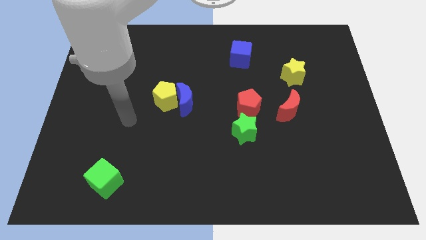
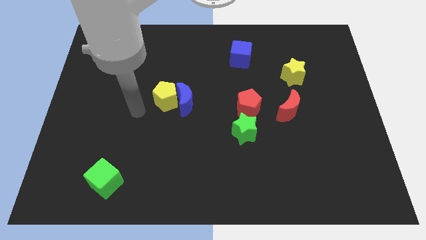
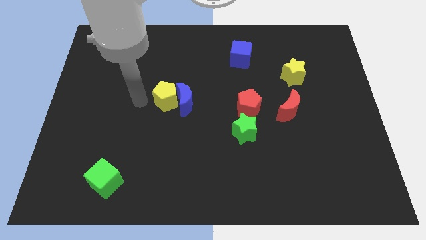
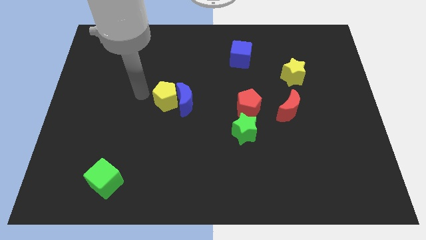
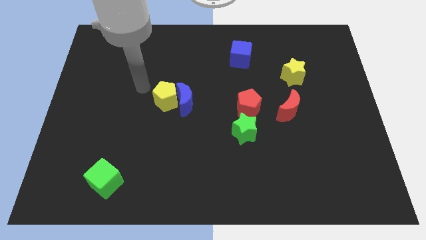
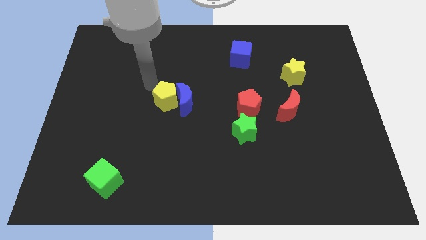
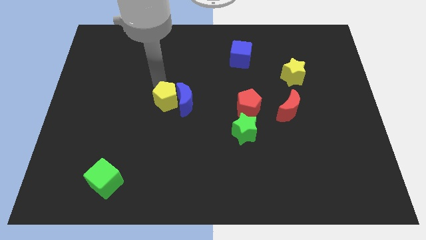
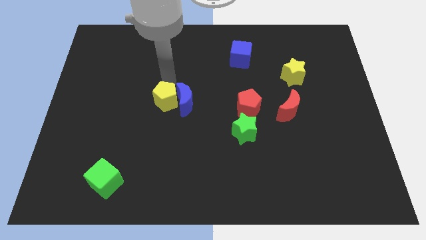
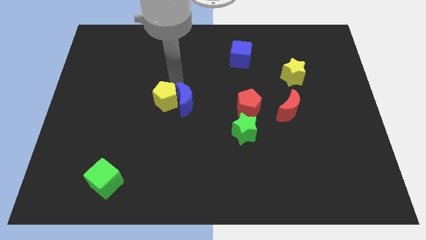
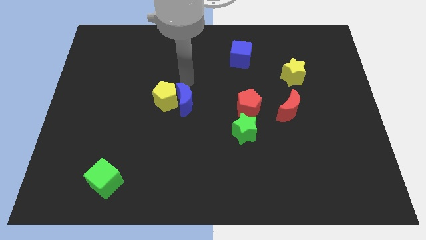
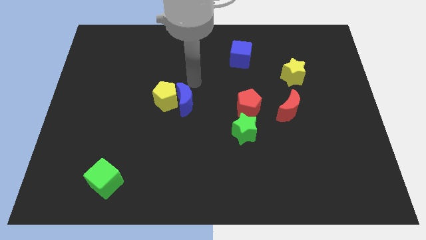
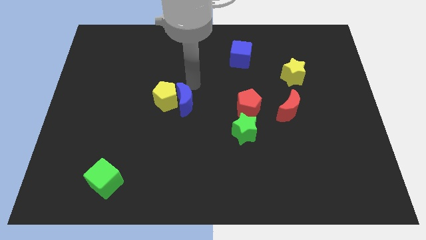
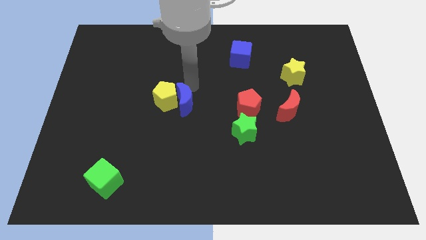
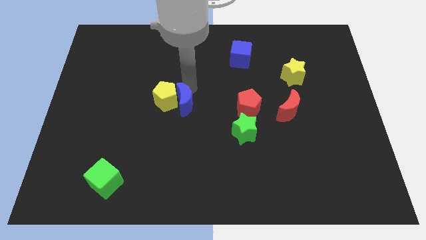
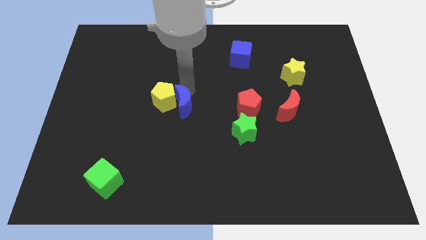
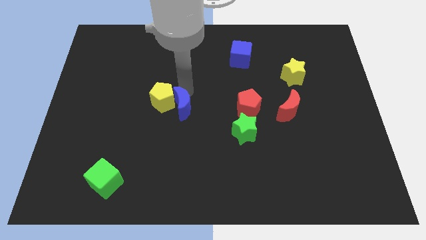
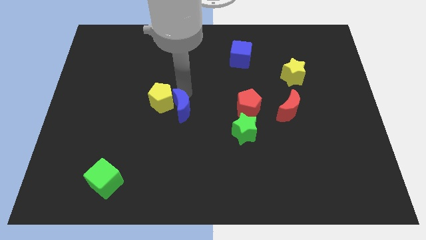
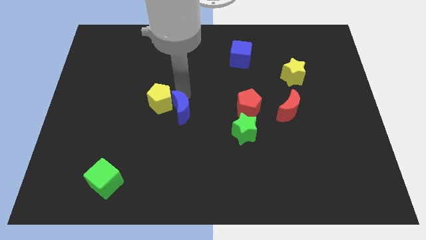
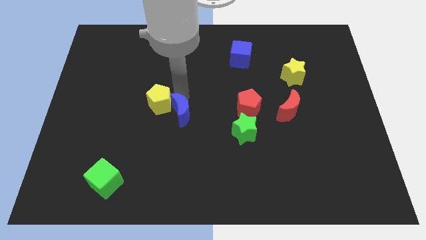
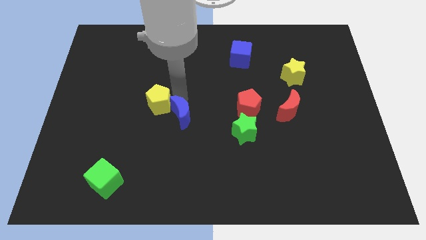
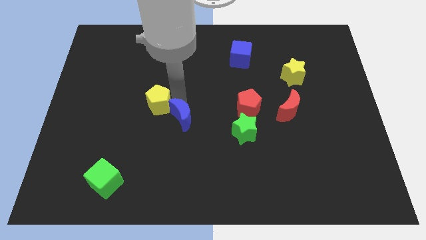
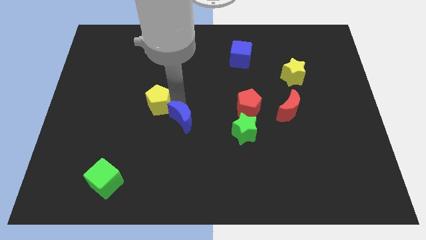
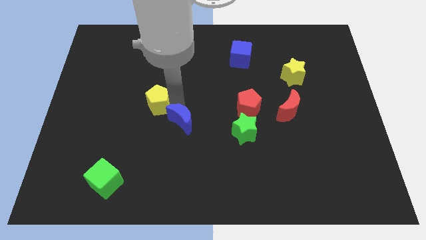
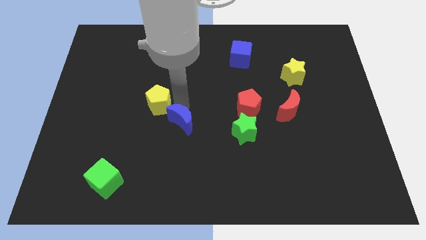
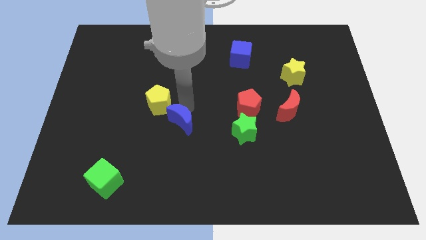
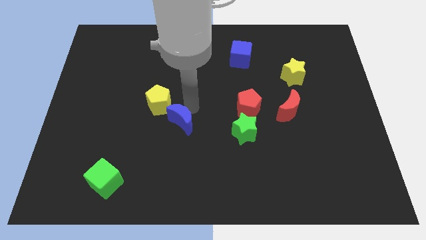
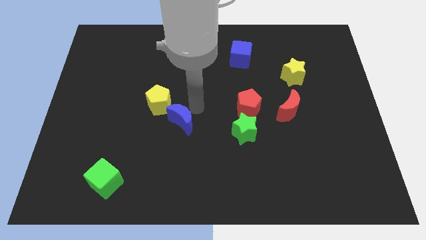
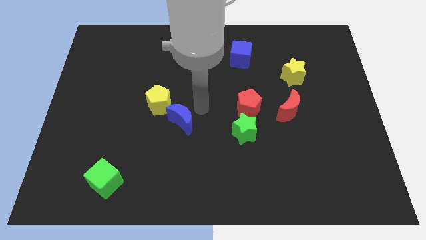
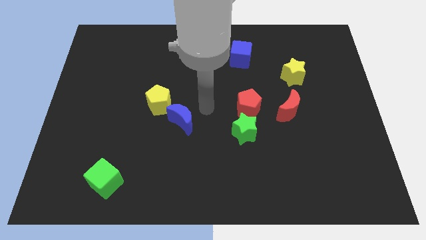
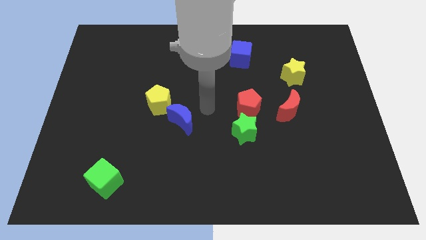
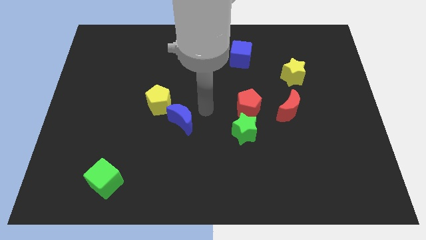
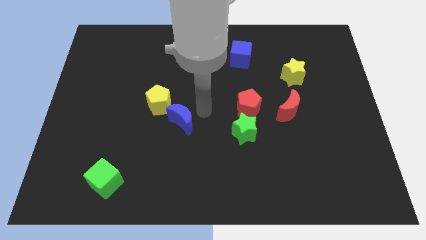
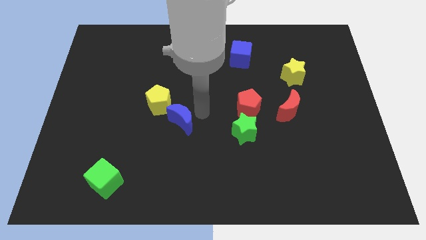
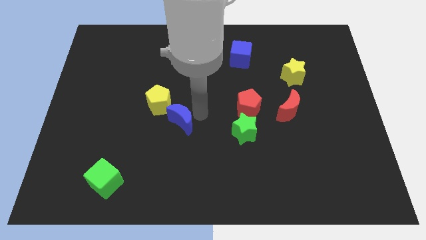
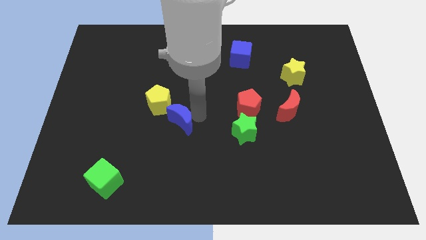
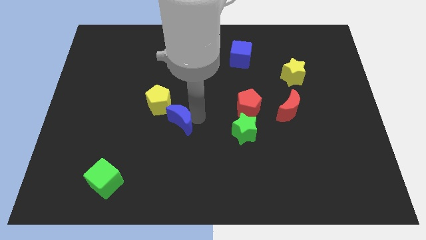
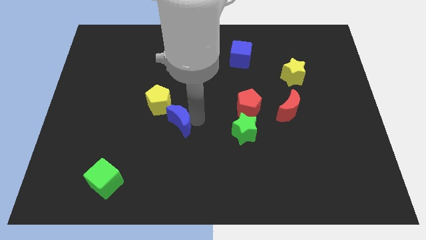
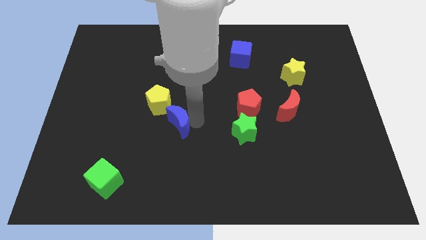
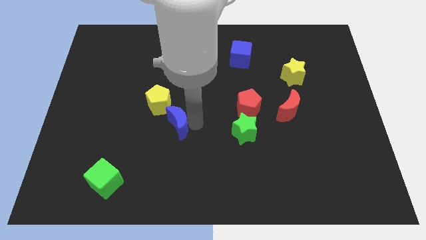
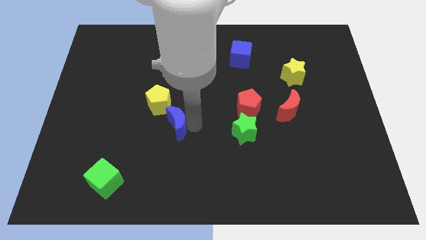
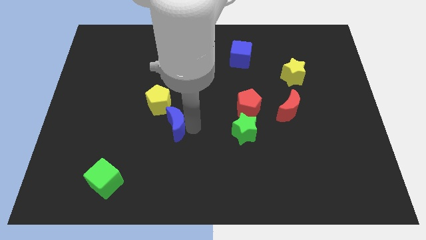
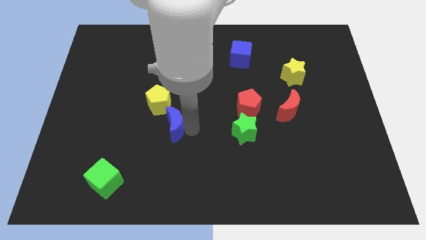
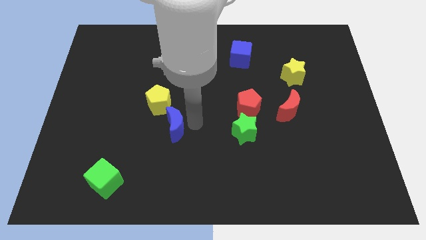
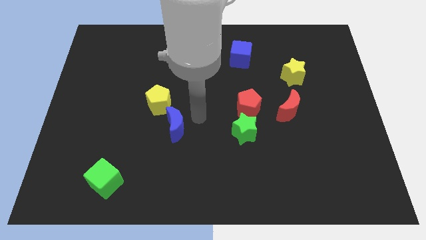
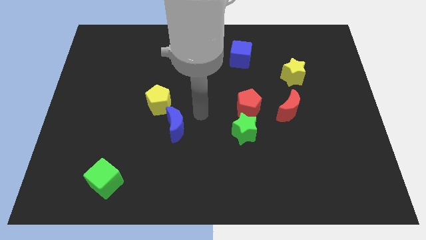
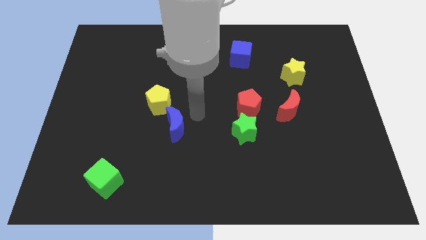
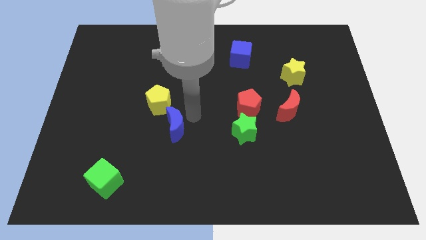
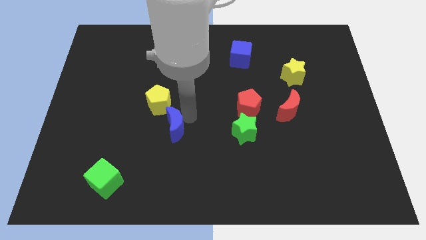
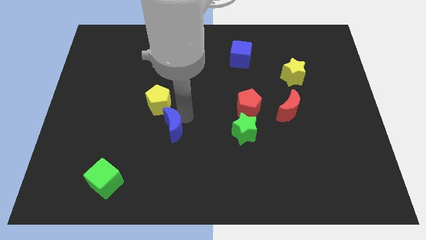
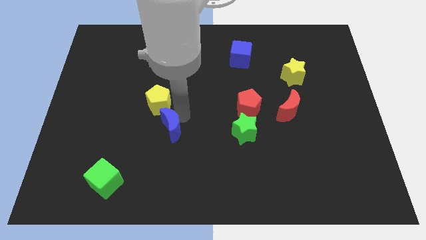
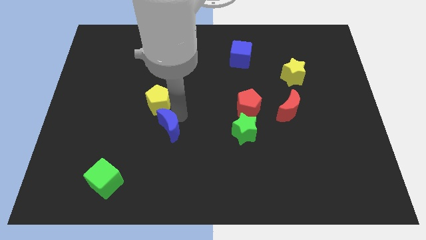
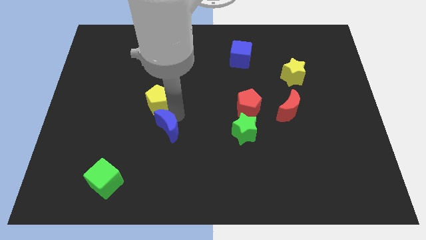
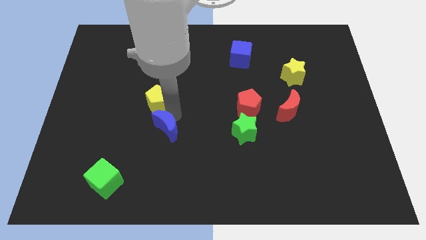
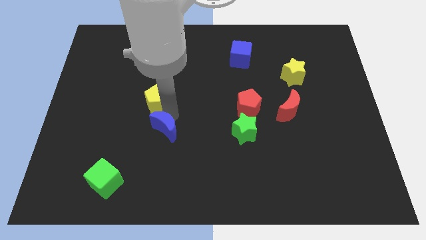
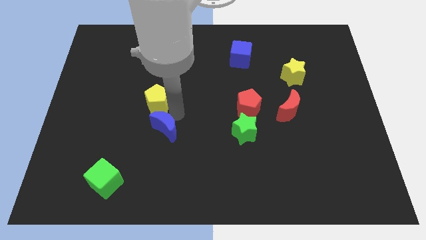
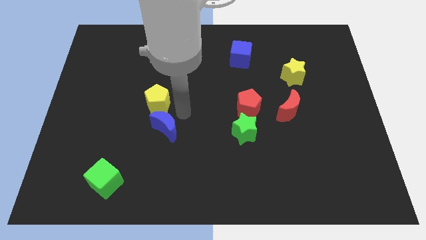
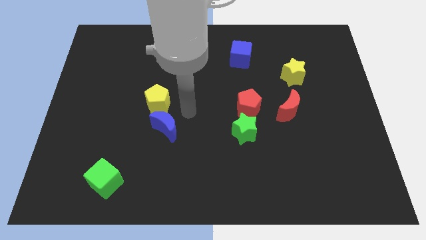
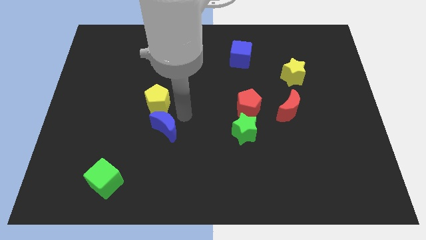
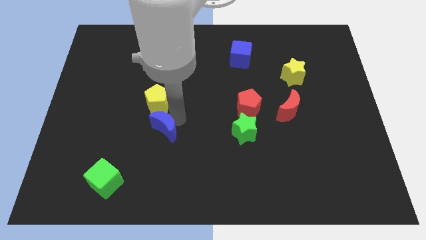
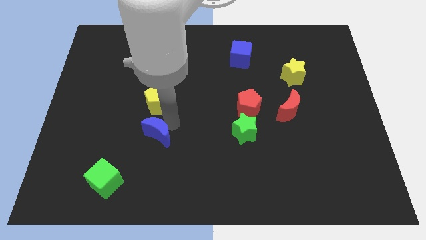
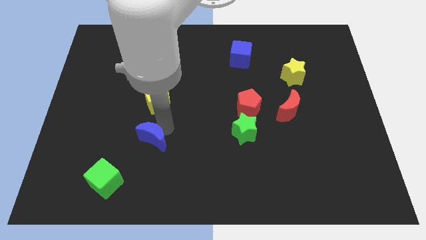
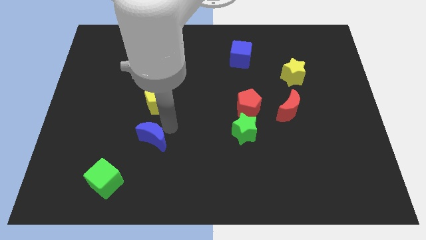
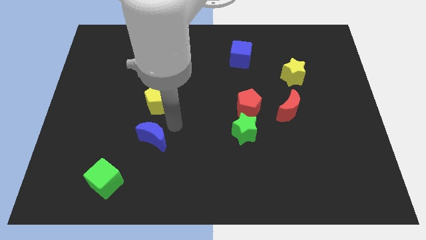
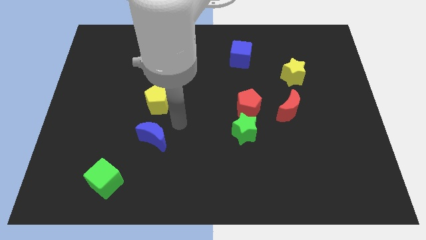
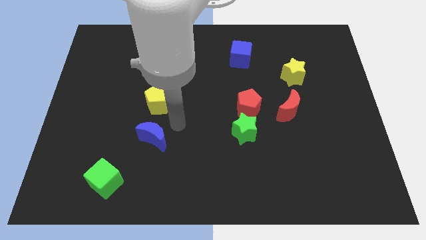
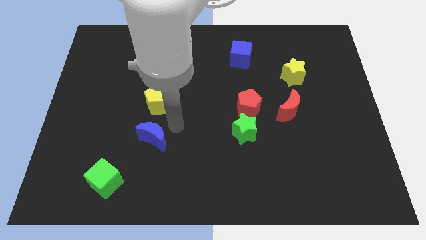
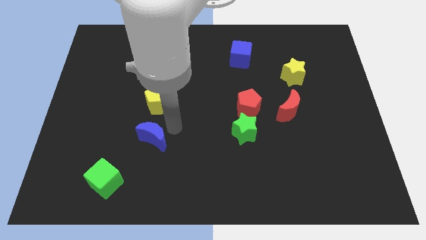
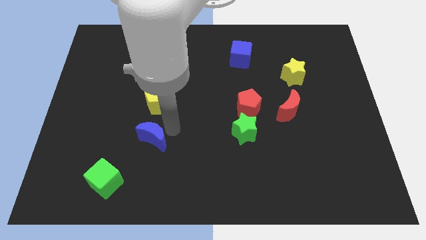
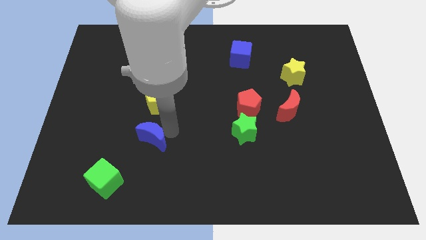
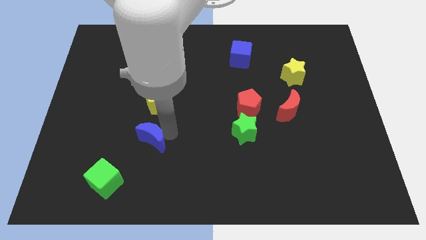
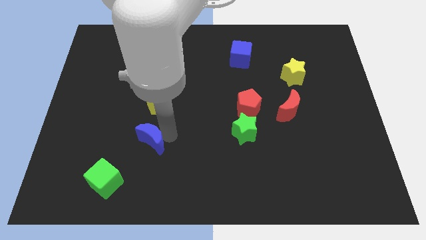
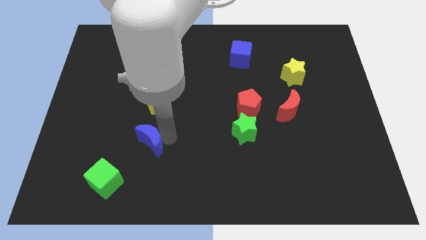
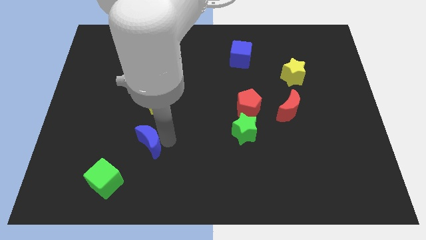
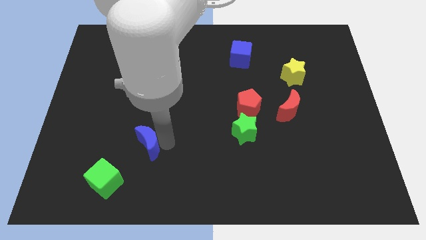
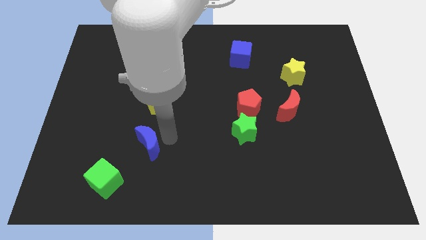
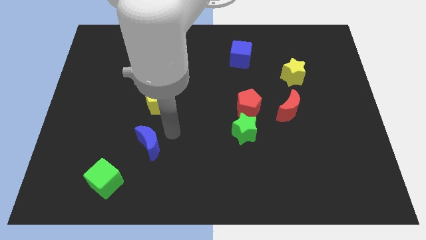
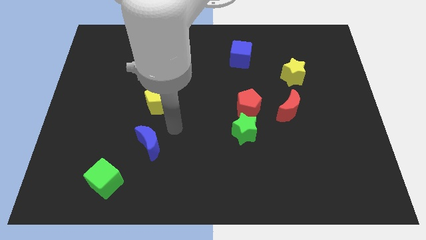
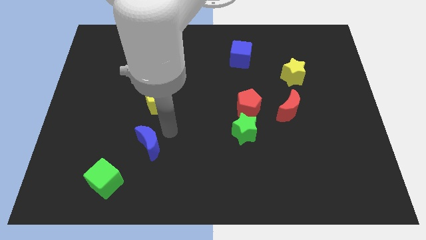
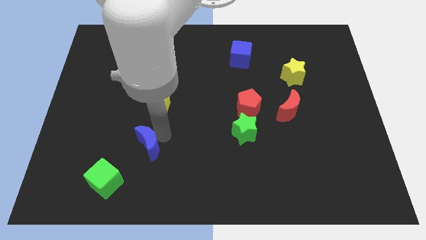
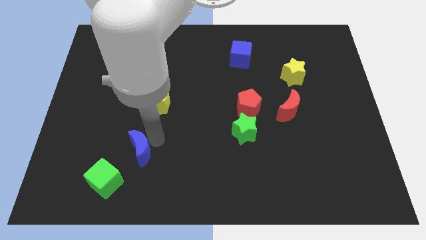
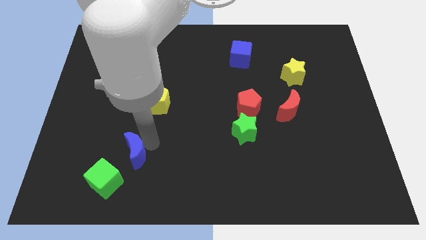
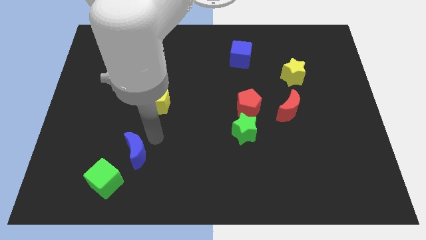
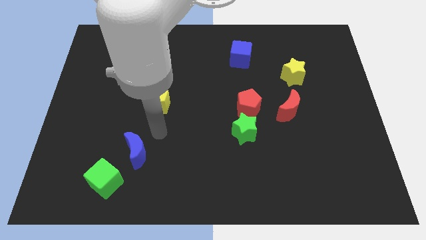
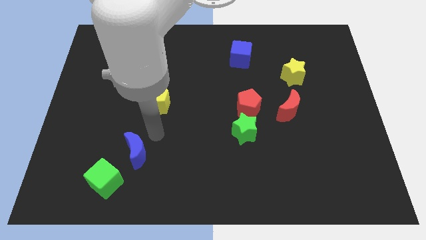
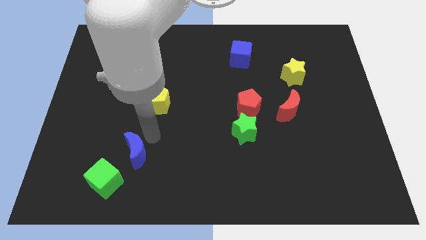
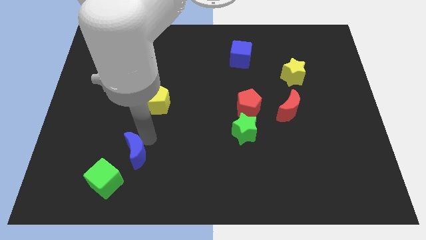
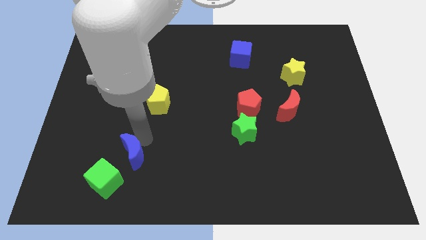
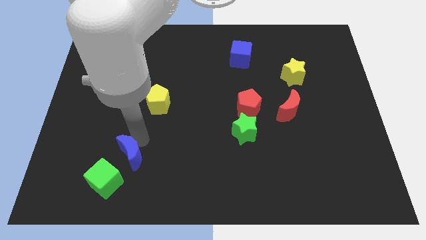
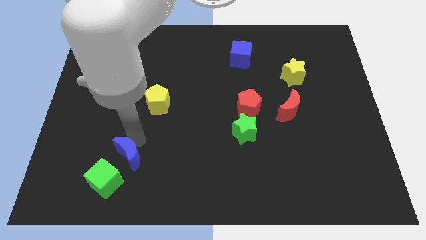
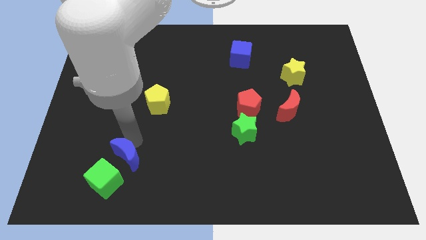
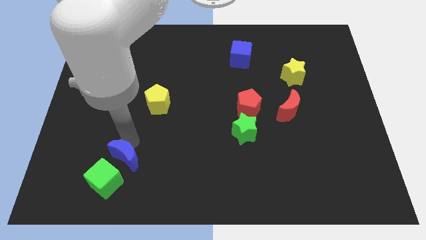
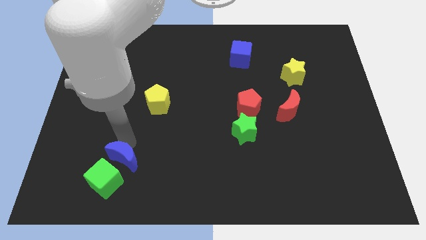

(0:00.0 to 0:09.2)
put the blue moon next to the green cube
